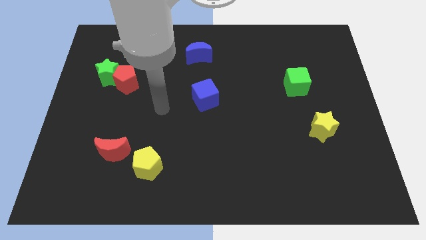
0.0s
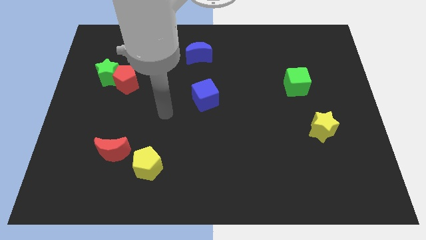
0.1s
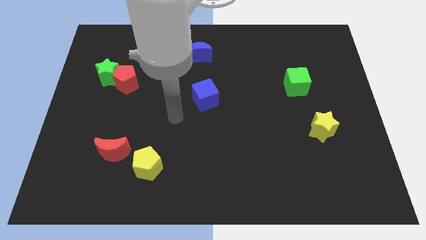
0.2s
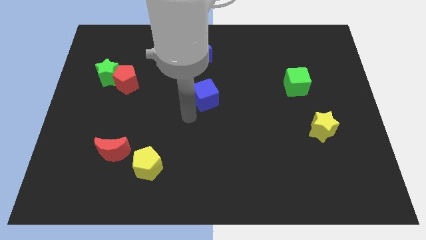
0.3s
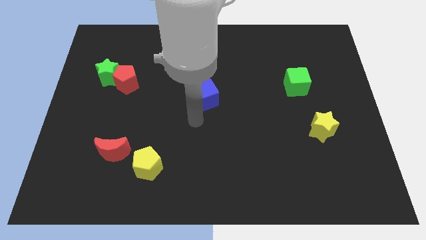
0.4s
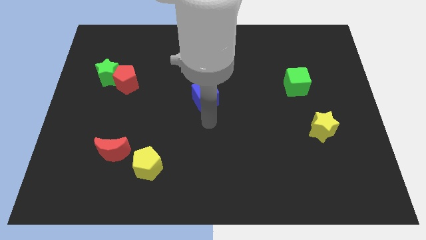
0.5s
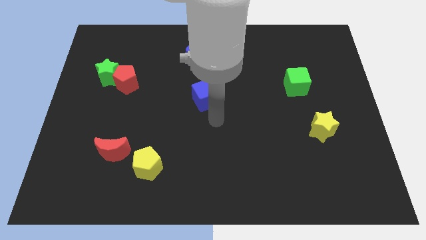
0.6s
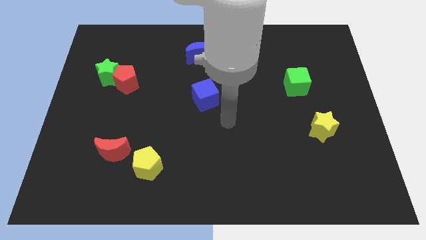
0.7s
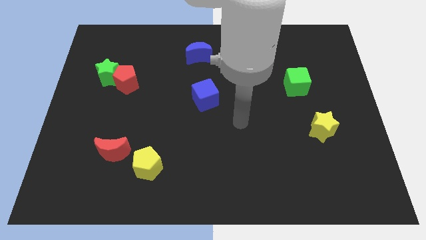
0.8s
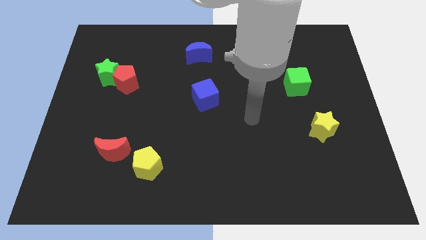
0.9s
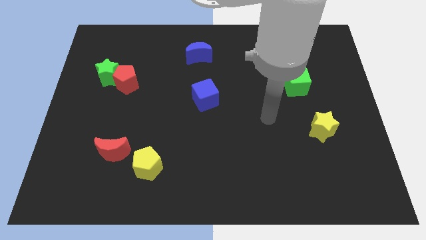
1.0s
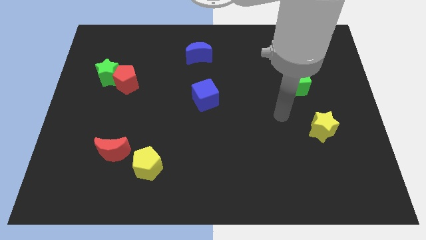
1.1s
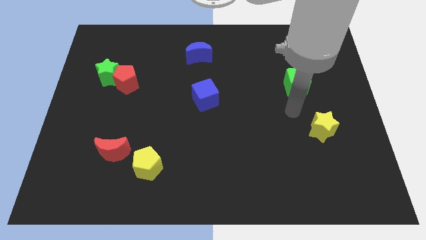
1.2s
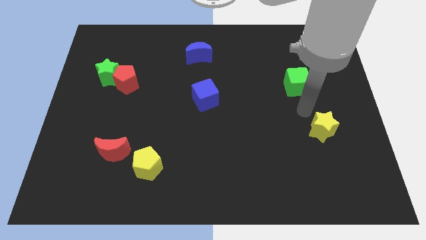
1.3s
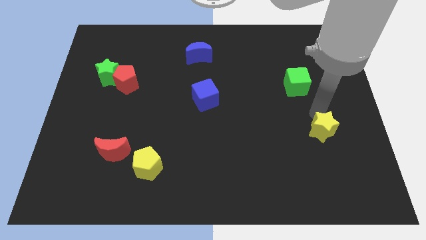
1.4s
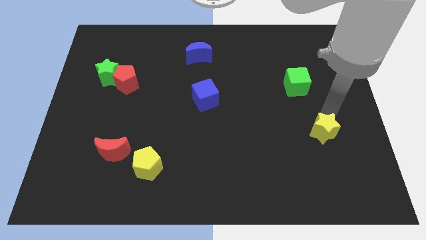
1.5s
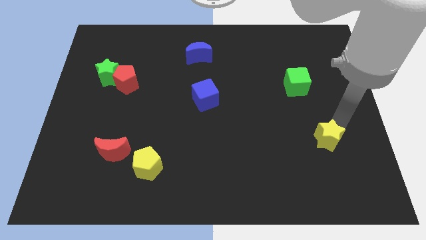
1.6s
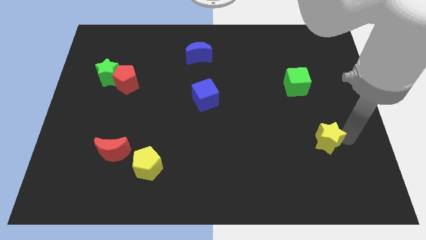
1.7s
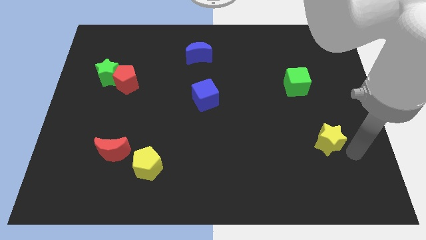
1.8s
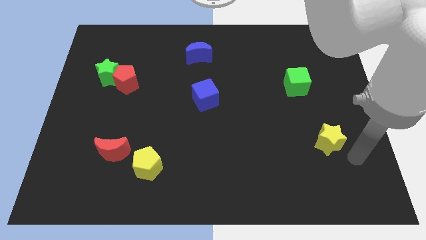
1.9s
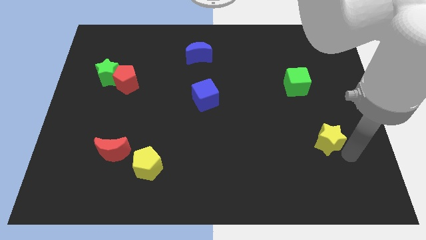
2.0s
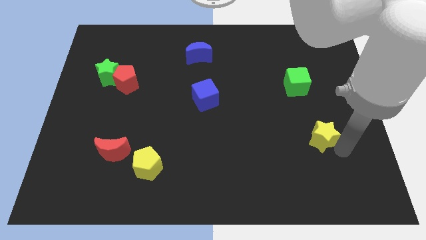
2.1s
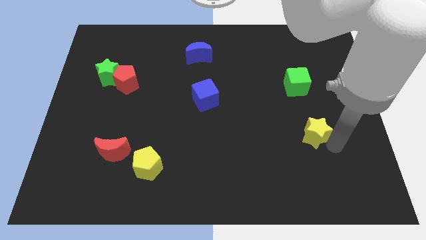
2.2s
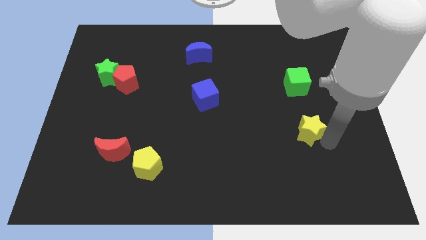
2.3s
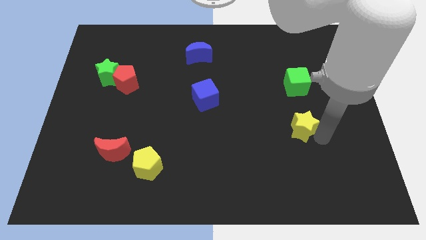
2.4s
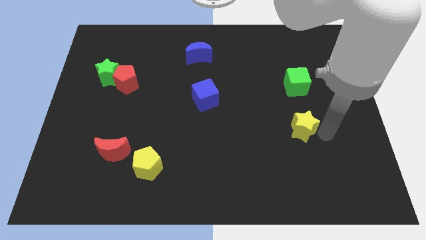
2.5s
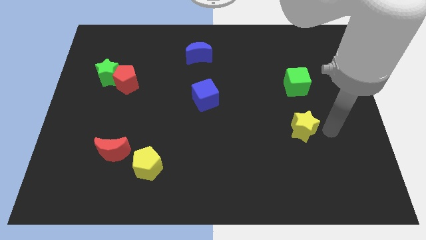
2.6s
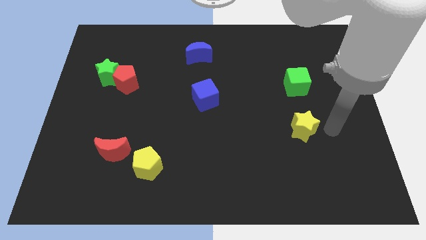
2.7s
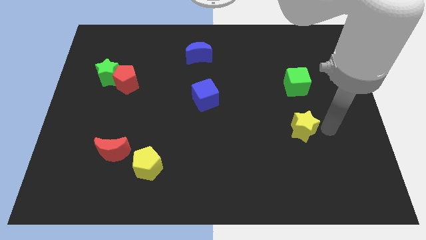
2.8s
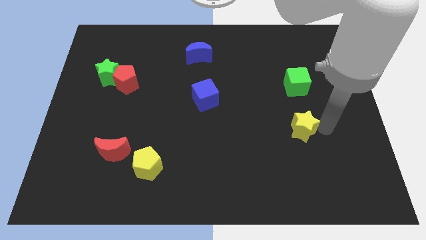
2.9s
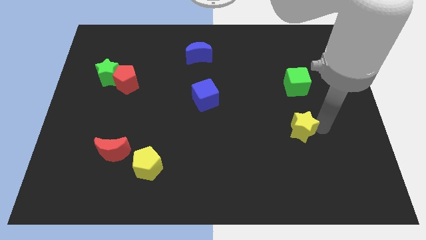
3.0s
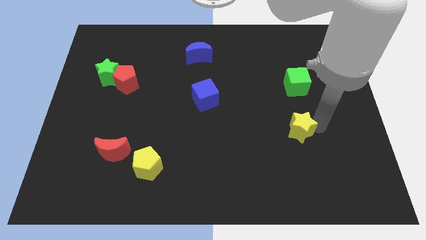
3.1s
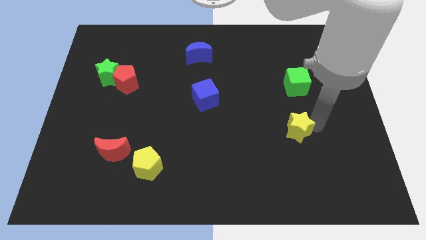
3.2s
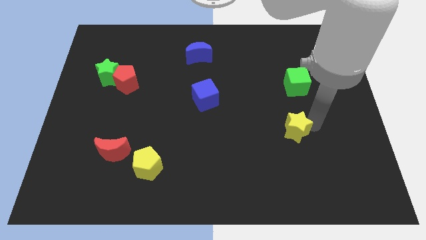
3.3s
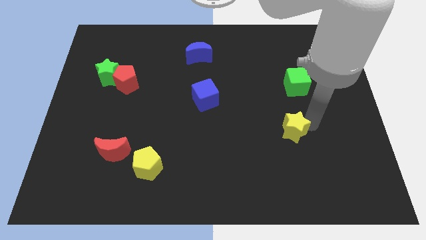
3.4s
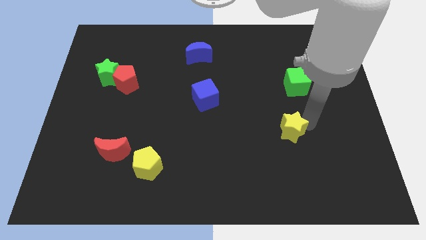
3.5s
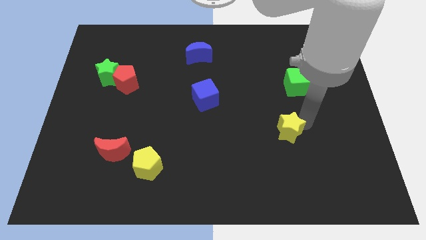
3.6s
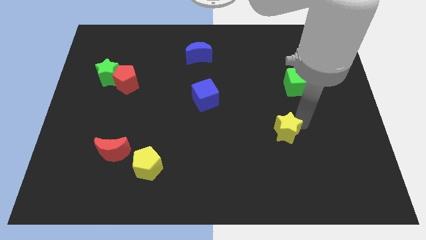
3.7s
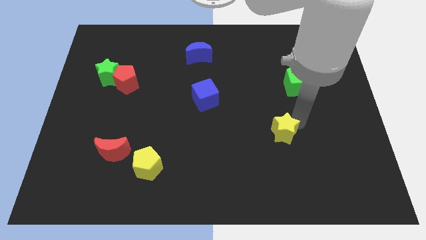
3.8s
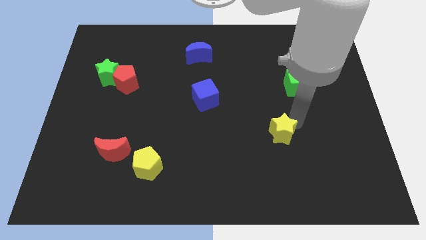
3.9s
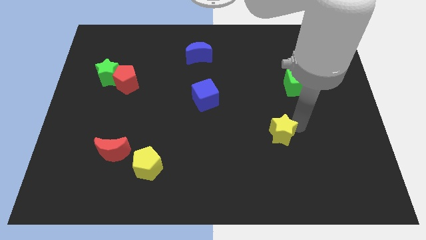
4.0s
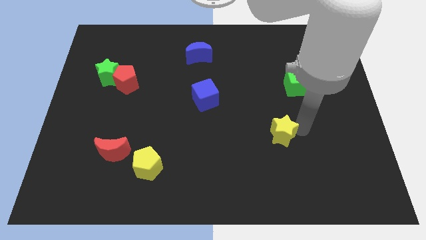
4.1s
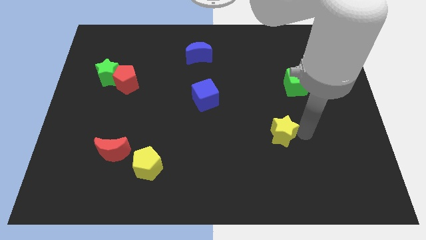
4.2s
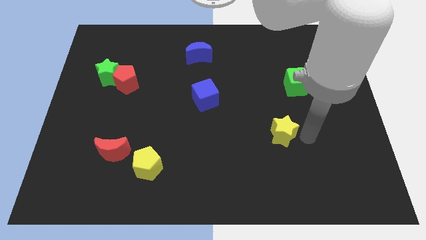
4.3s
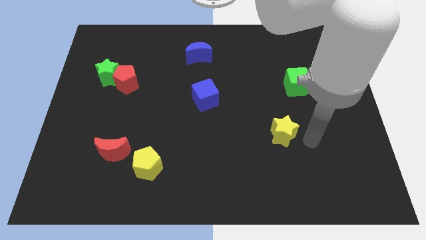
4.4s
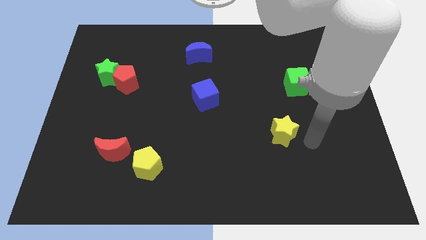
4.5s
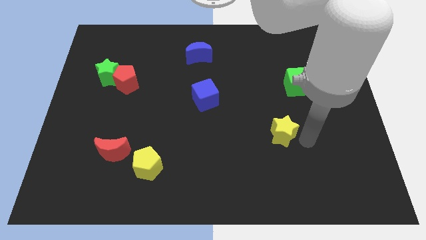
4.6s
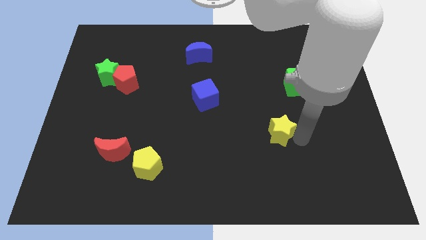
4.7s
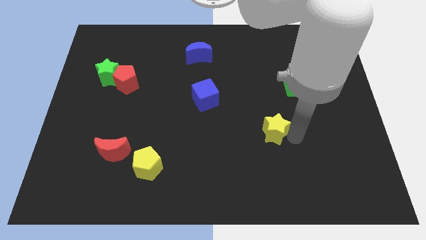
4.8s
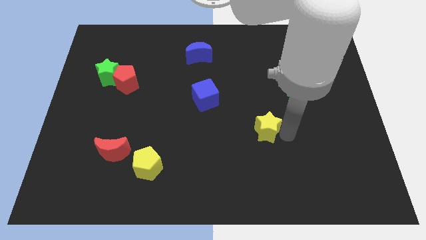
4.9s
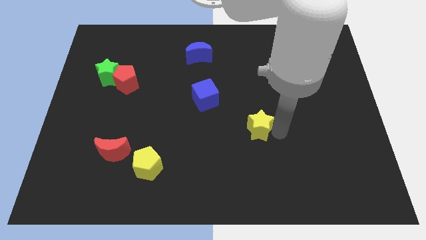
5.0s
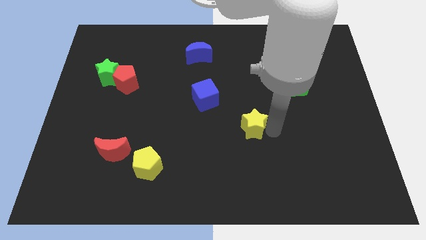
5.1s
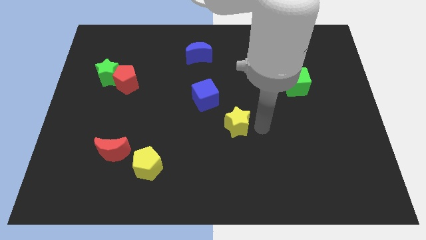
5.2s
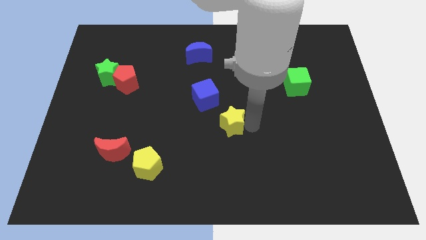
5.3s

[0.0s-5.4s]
move the yellow star to the left

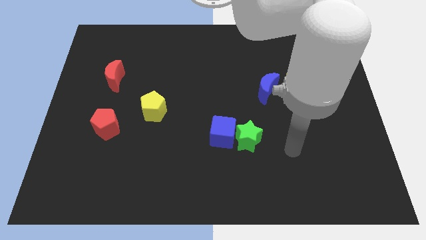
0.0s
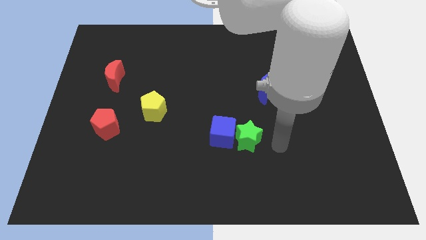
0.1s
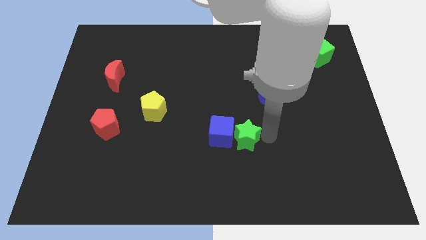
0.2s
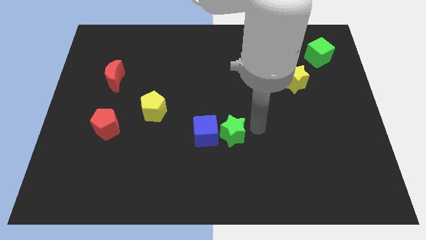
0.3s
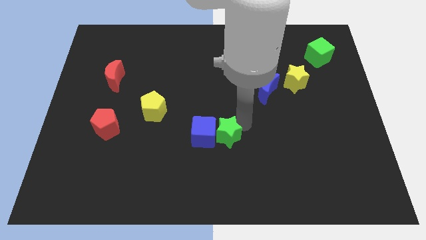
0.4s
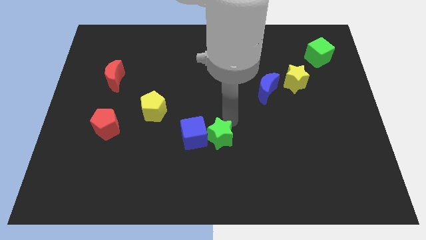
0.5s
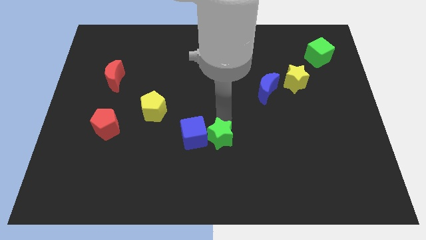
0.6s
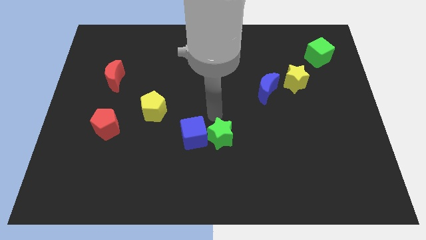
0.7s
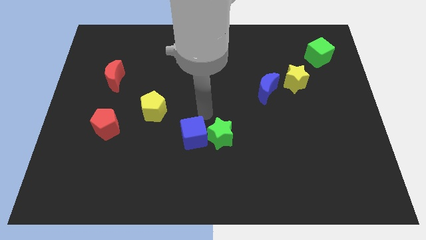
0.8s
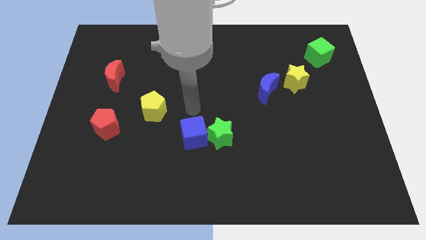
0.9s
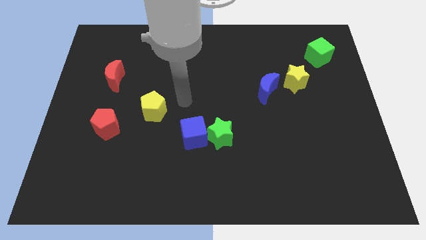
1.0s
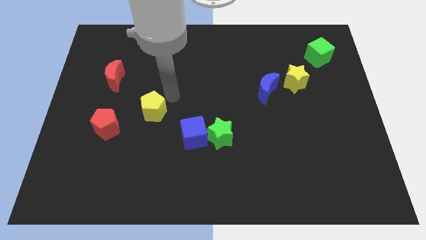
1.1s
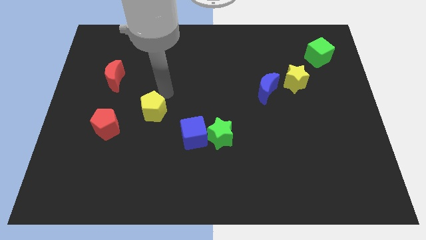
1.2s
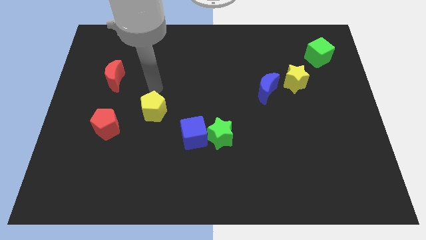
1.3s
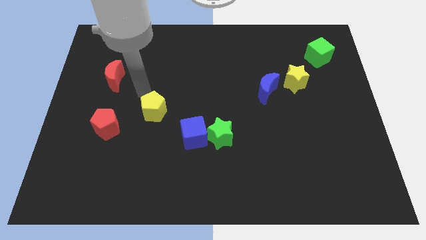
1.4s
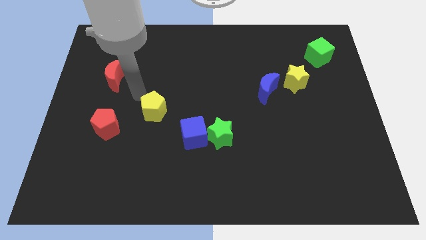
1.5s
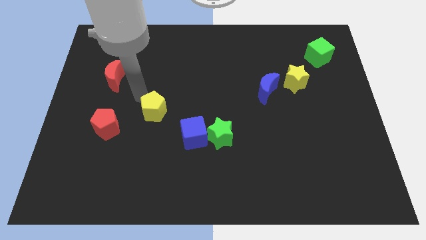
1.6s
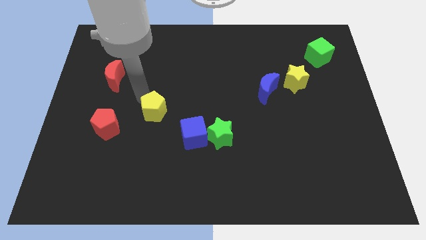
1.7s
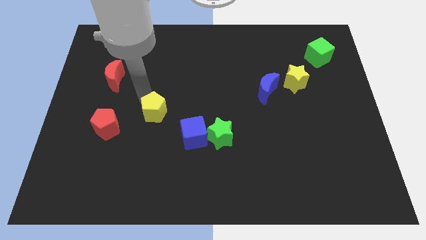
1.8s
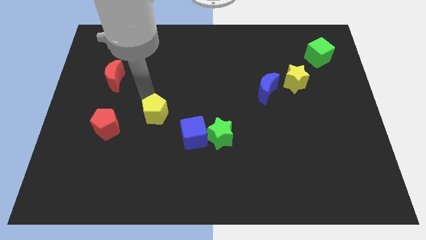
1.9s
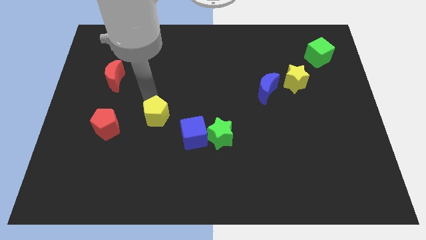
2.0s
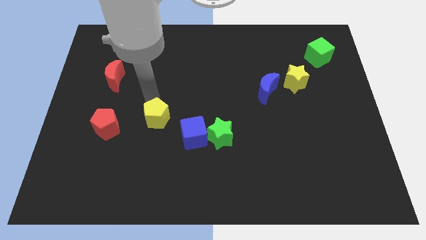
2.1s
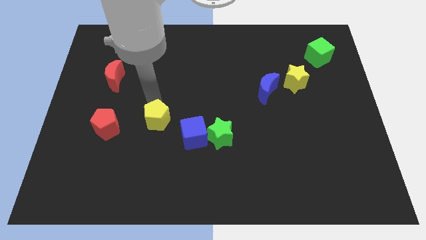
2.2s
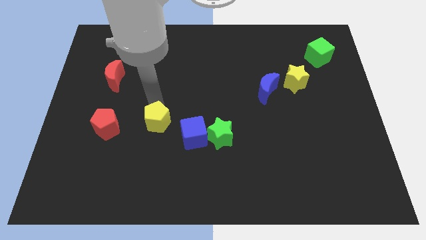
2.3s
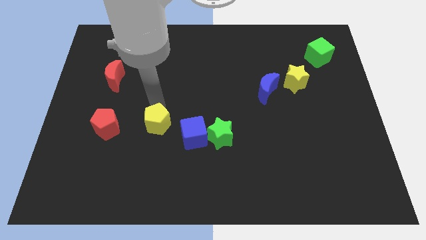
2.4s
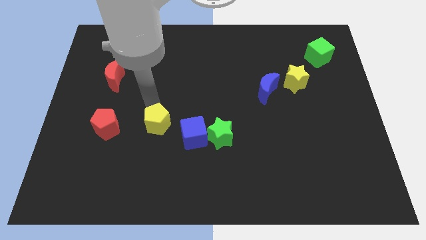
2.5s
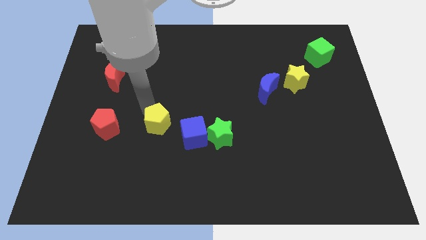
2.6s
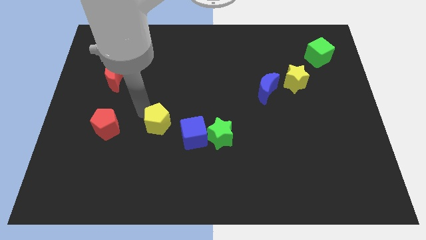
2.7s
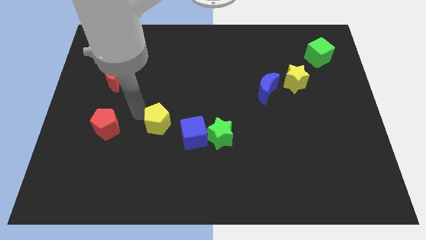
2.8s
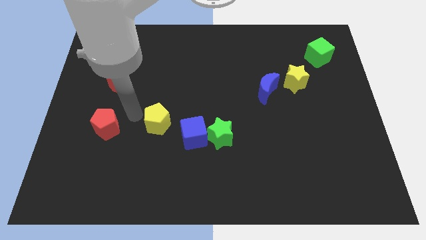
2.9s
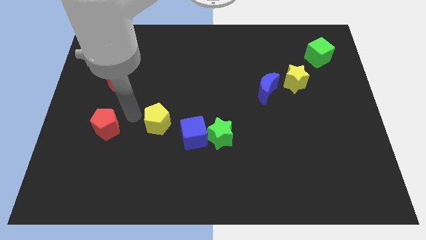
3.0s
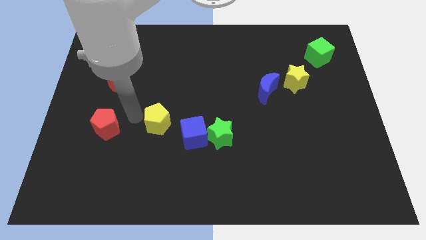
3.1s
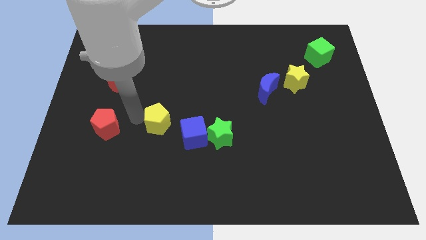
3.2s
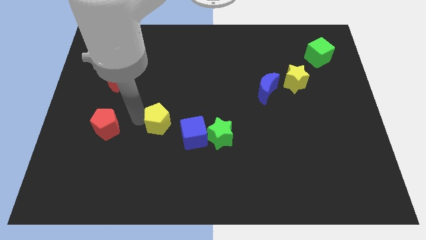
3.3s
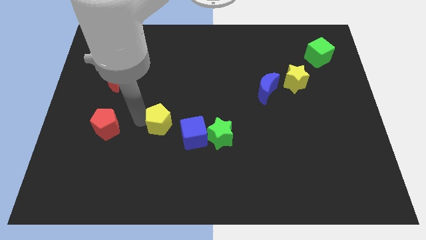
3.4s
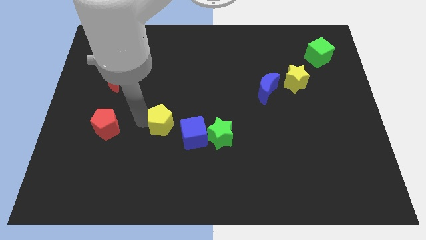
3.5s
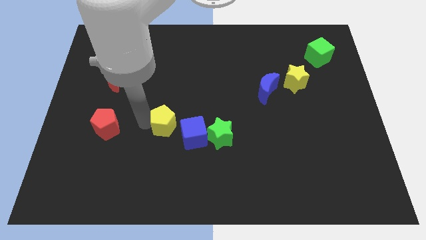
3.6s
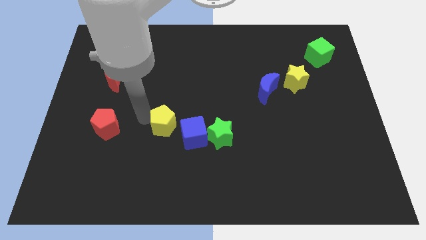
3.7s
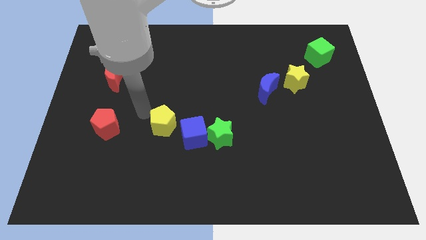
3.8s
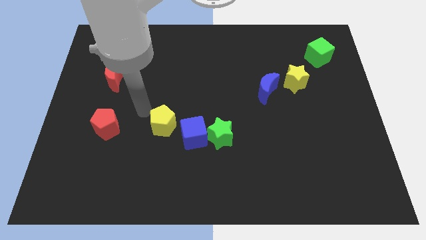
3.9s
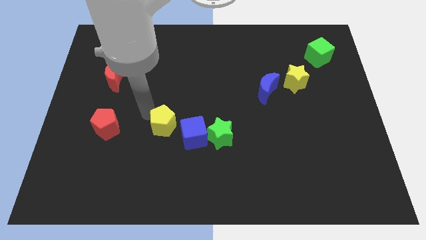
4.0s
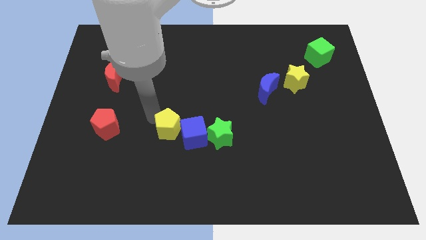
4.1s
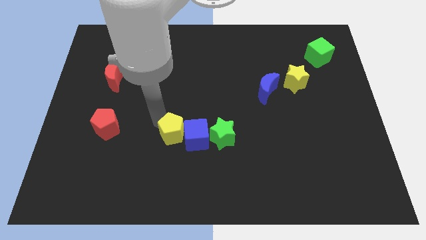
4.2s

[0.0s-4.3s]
slightly slide the yellow pentagon down and to the right diagonally
